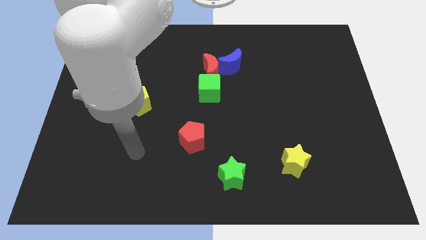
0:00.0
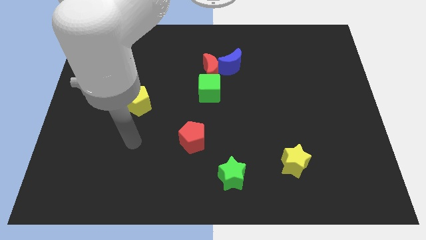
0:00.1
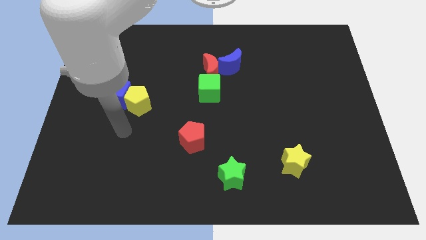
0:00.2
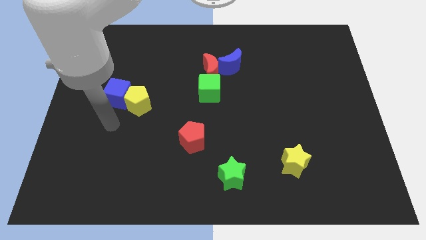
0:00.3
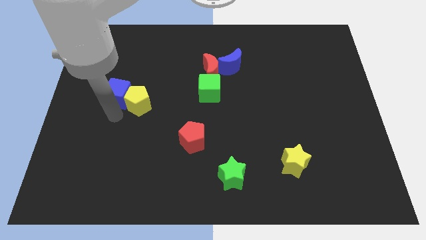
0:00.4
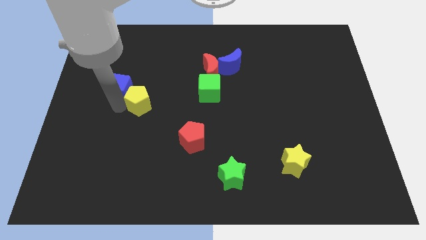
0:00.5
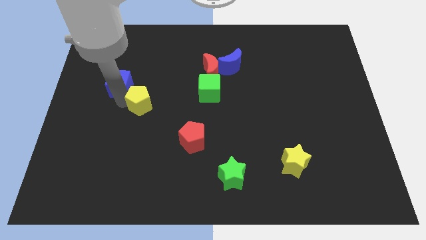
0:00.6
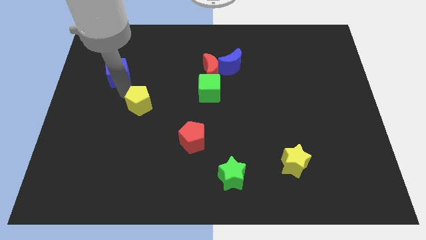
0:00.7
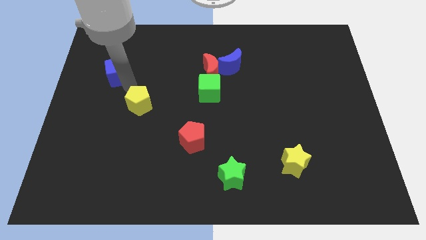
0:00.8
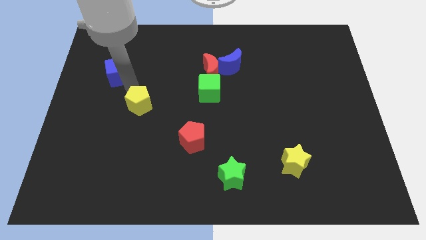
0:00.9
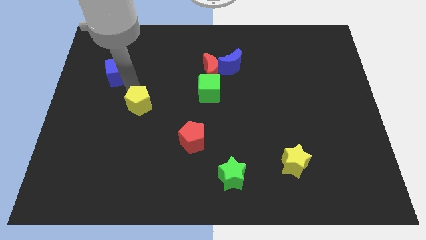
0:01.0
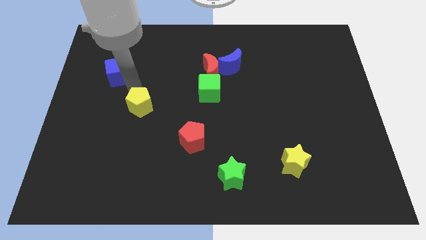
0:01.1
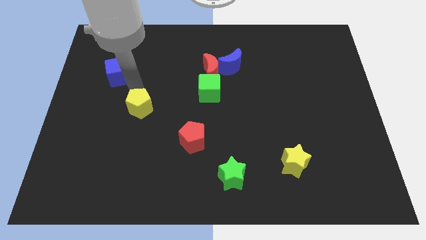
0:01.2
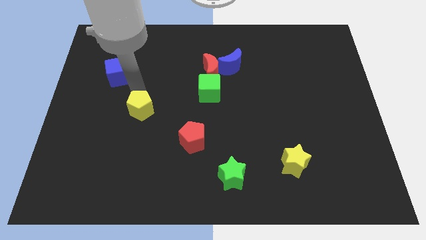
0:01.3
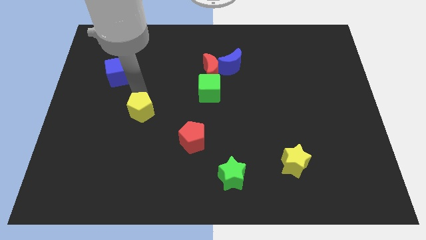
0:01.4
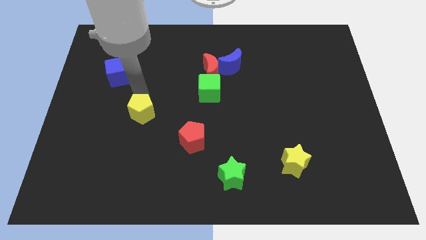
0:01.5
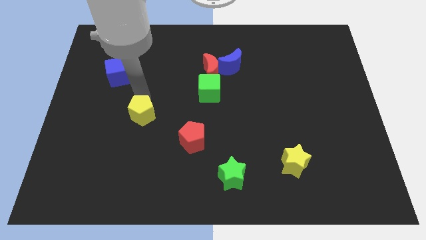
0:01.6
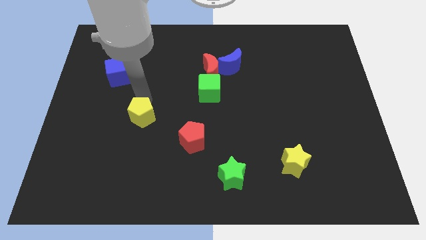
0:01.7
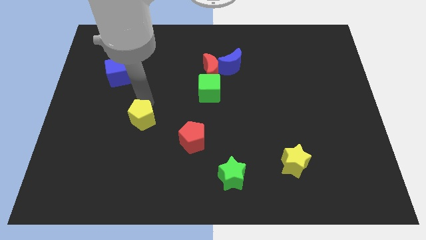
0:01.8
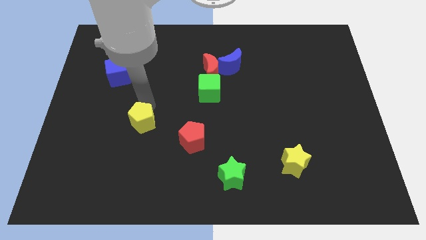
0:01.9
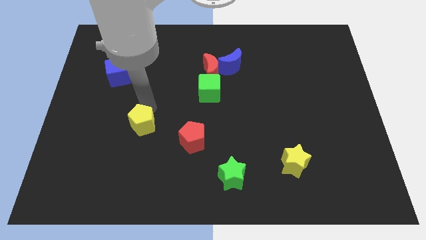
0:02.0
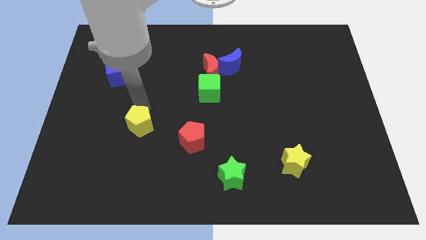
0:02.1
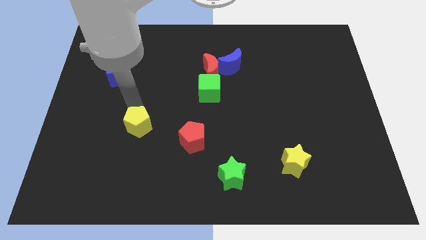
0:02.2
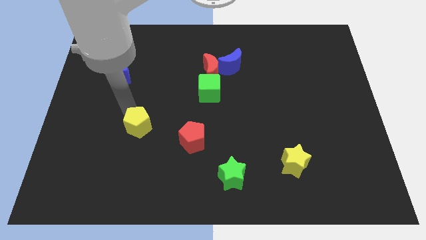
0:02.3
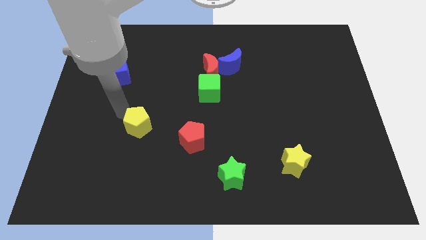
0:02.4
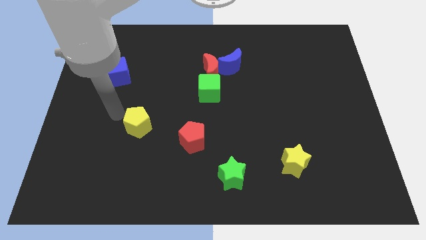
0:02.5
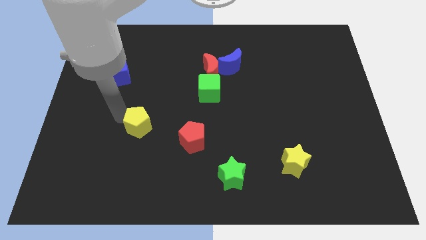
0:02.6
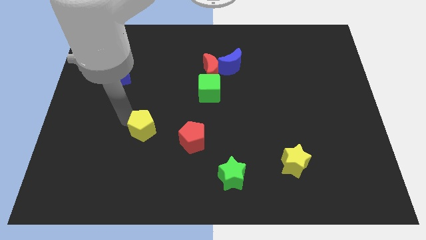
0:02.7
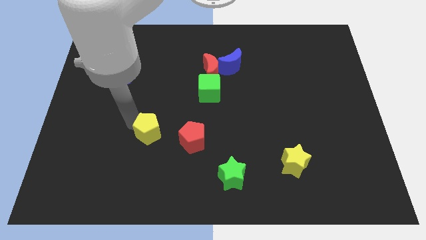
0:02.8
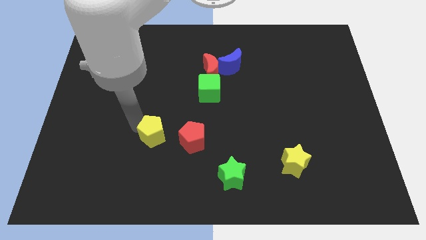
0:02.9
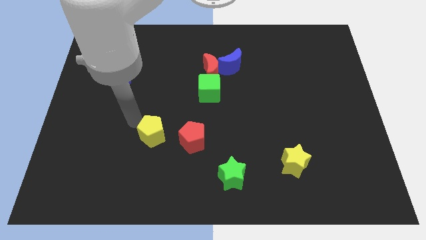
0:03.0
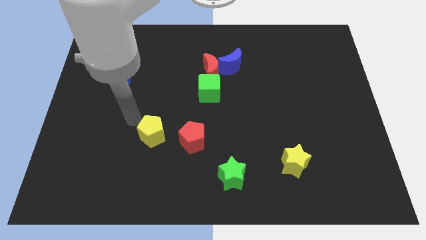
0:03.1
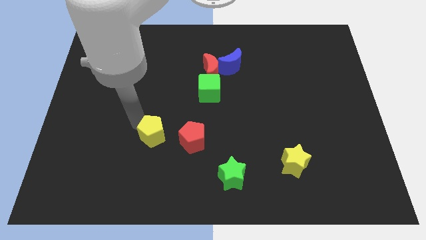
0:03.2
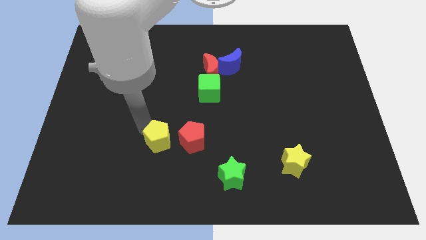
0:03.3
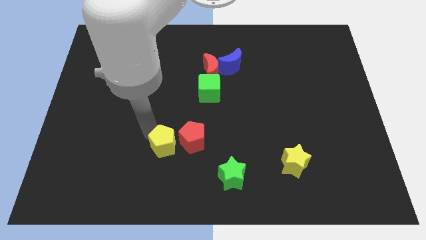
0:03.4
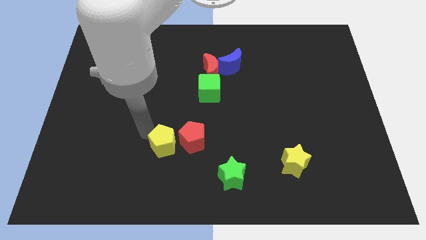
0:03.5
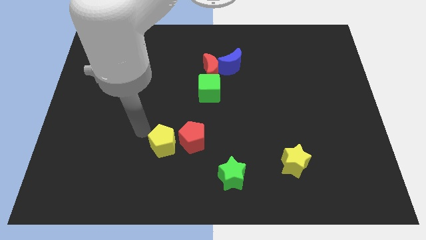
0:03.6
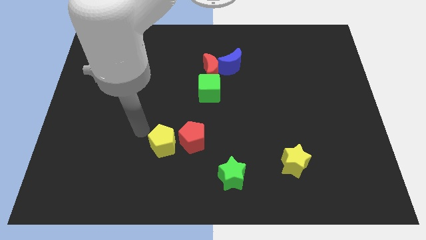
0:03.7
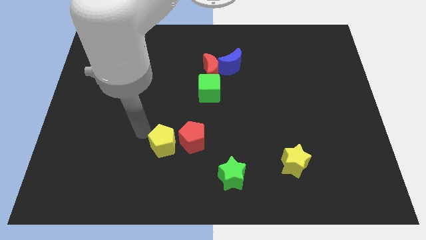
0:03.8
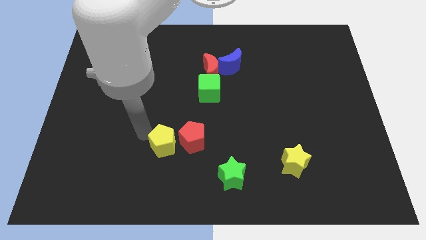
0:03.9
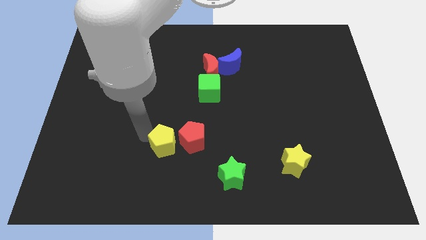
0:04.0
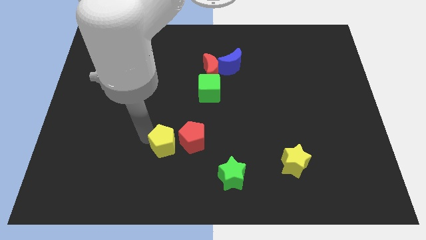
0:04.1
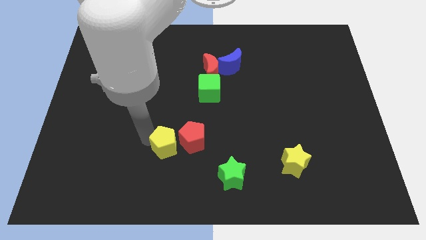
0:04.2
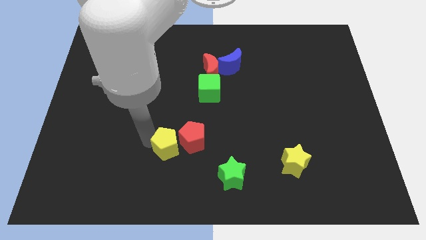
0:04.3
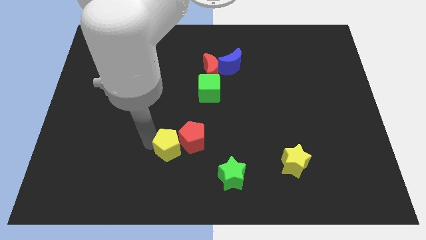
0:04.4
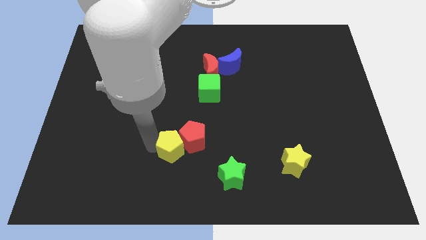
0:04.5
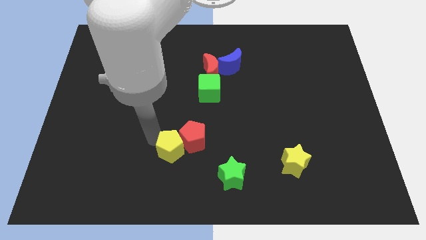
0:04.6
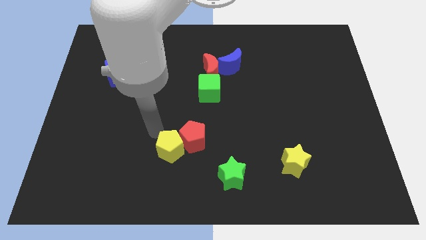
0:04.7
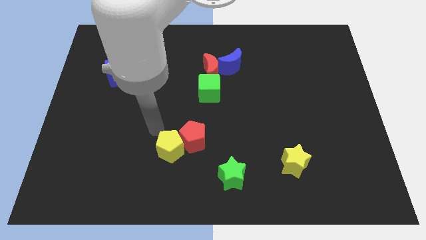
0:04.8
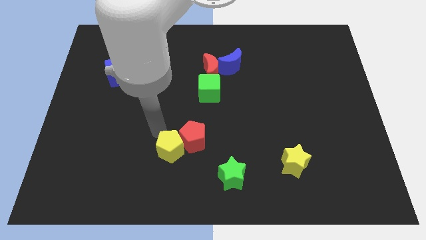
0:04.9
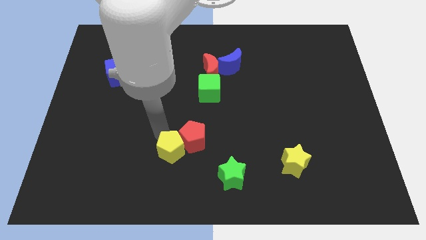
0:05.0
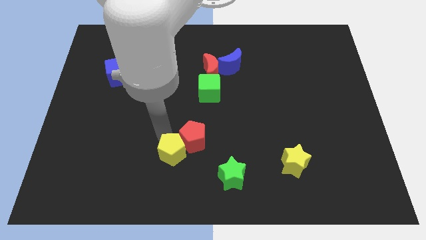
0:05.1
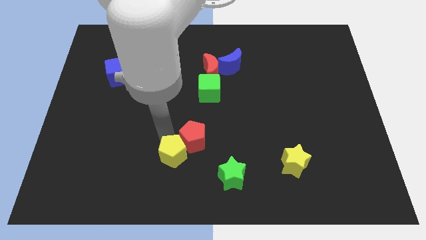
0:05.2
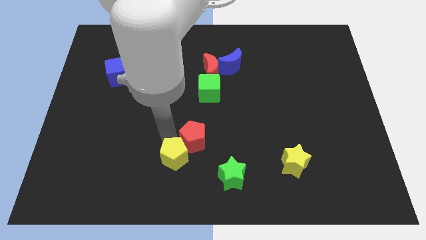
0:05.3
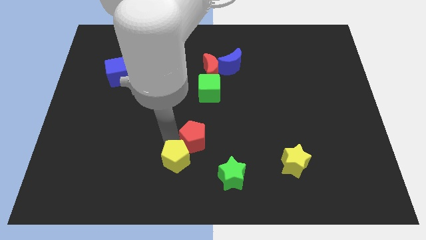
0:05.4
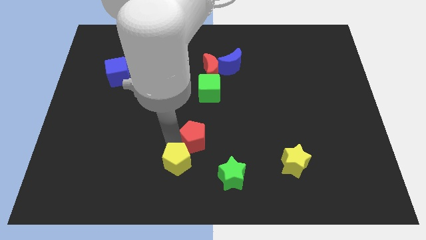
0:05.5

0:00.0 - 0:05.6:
slide the yellow pentagon to the bottom
